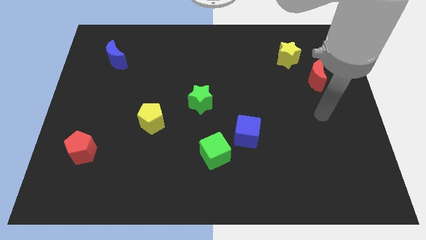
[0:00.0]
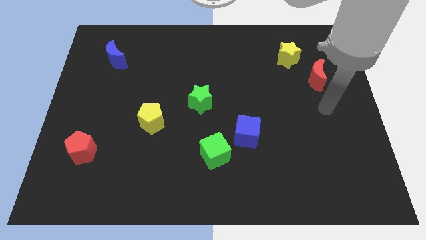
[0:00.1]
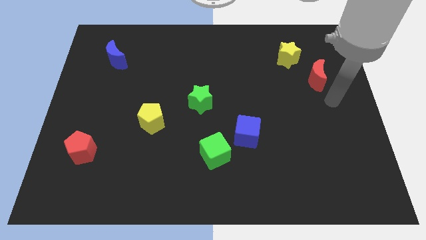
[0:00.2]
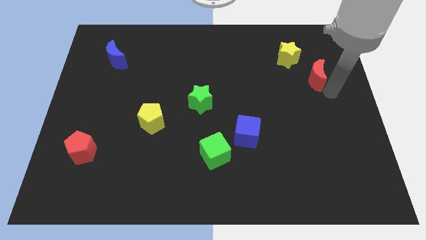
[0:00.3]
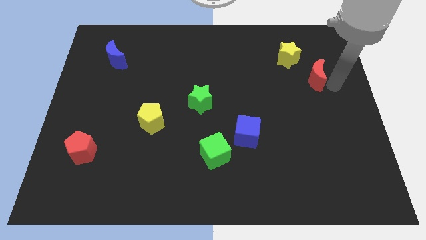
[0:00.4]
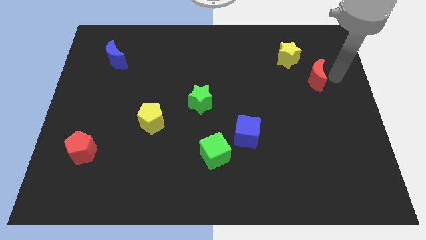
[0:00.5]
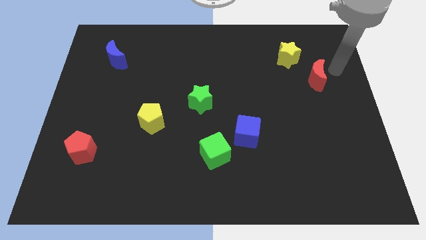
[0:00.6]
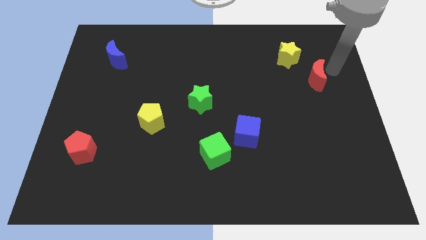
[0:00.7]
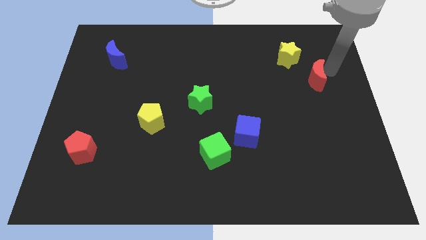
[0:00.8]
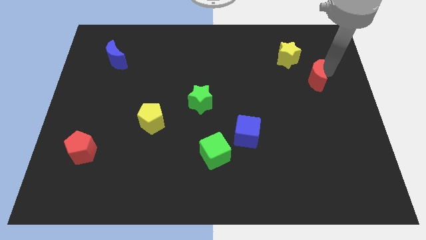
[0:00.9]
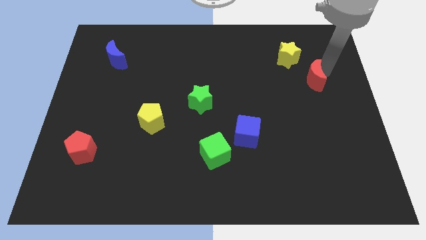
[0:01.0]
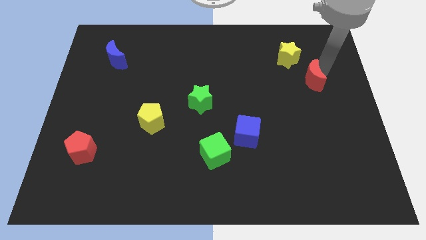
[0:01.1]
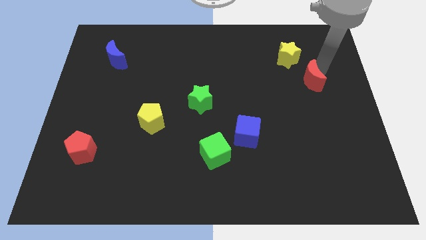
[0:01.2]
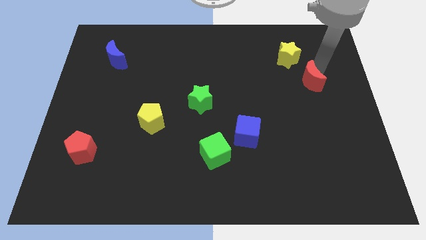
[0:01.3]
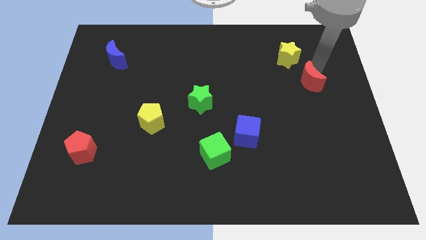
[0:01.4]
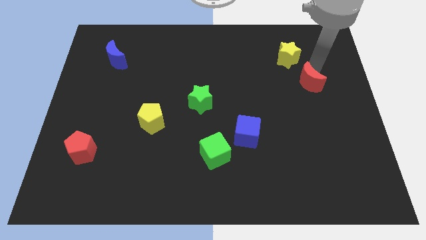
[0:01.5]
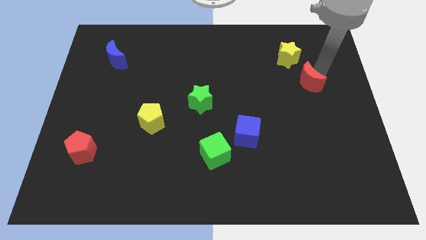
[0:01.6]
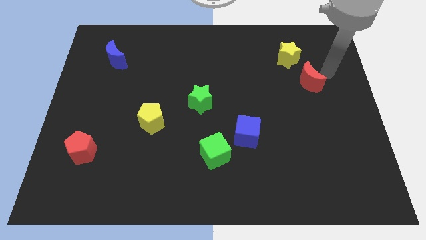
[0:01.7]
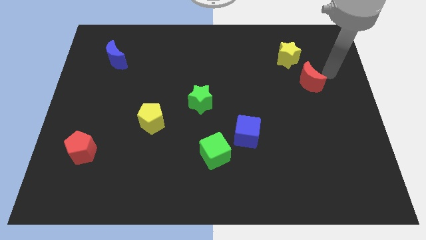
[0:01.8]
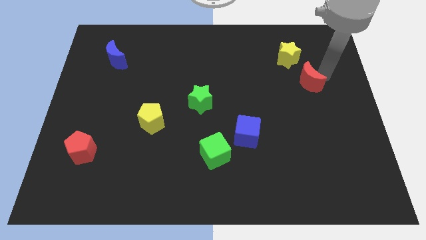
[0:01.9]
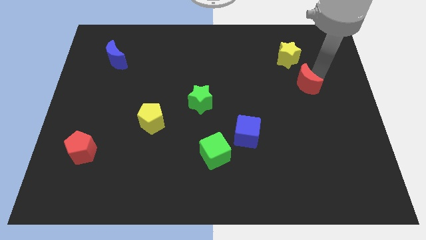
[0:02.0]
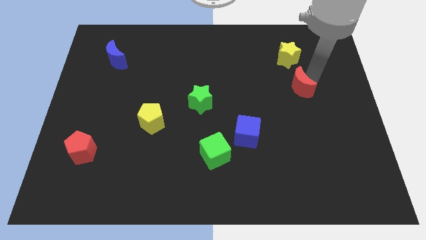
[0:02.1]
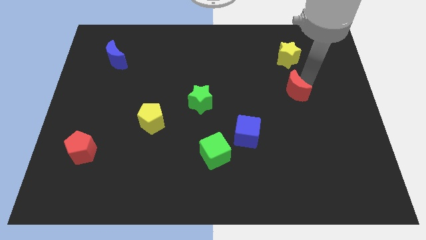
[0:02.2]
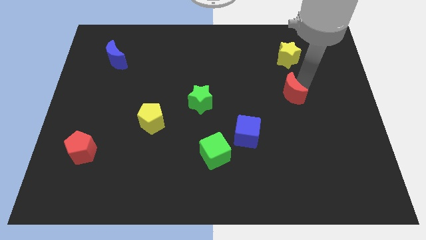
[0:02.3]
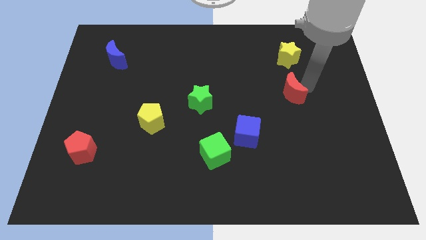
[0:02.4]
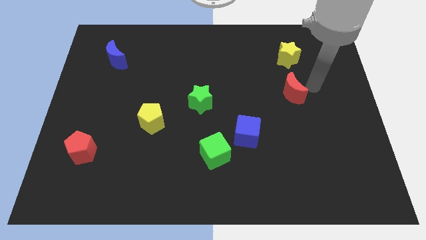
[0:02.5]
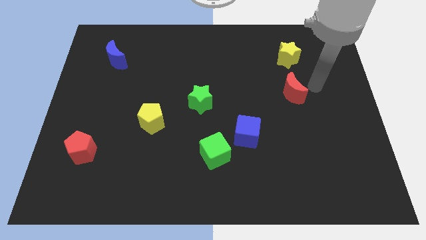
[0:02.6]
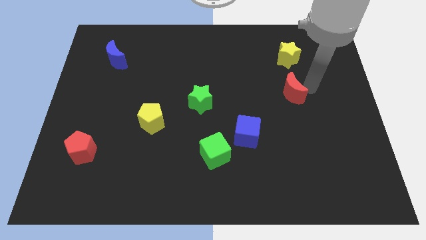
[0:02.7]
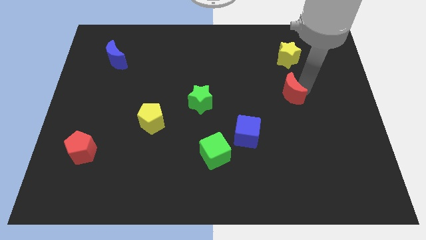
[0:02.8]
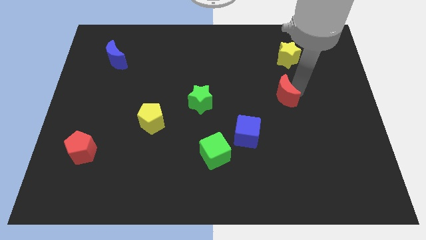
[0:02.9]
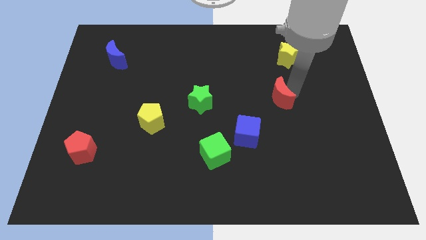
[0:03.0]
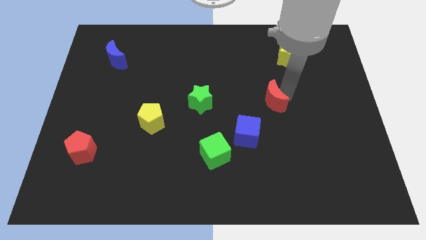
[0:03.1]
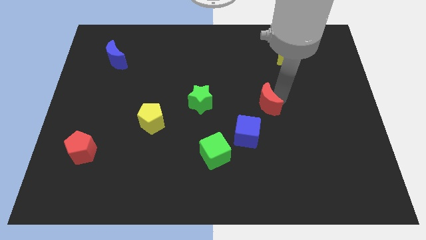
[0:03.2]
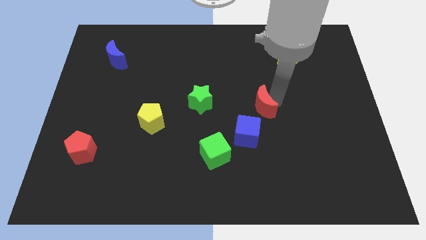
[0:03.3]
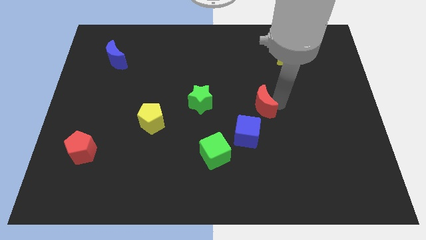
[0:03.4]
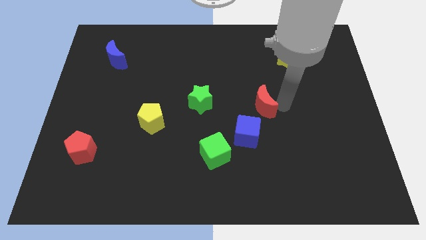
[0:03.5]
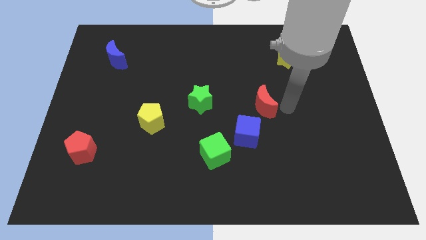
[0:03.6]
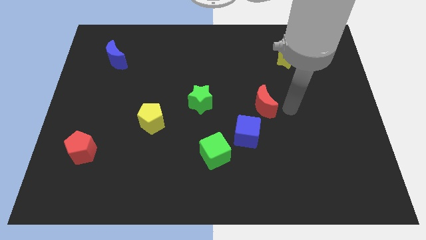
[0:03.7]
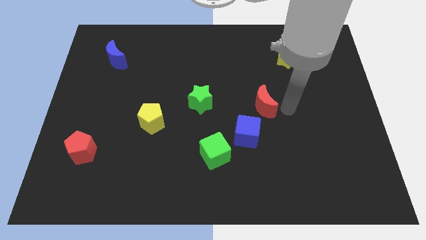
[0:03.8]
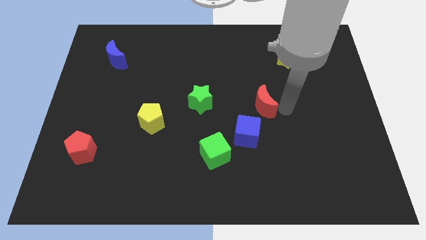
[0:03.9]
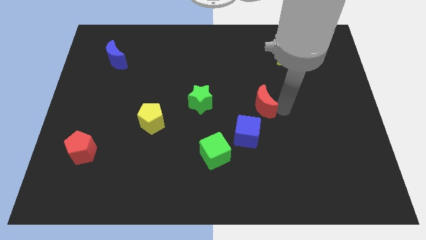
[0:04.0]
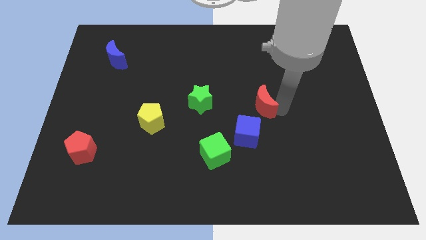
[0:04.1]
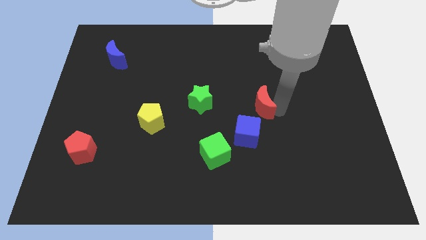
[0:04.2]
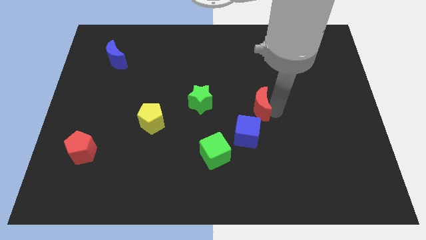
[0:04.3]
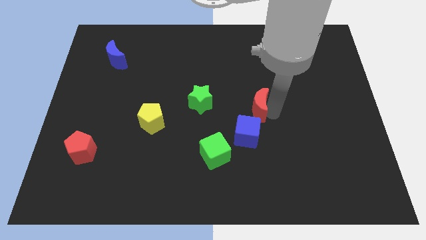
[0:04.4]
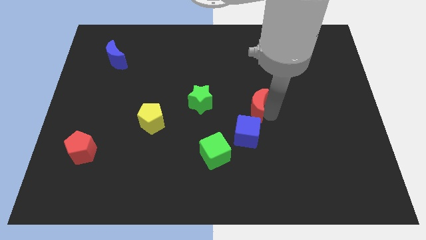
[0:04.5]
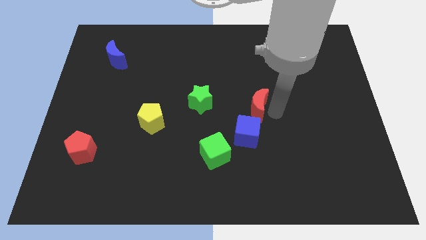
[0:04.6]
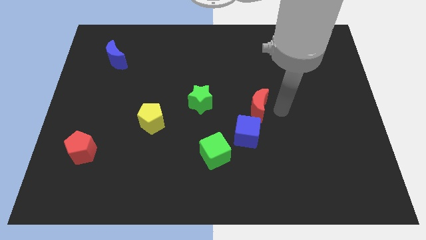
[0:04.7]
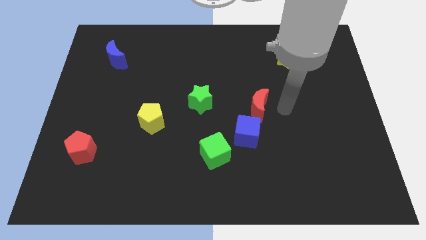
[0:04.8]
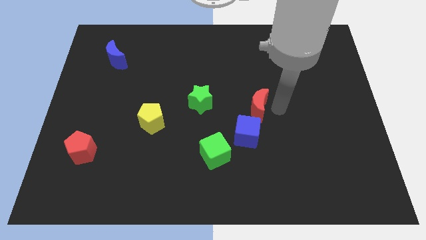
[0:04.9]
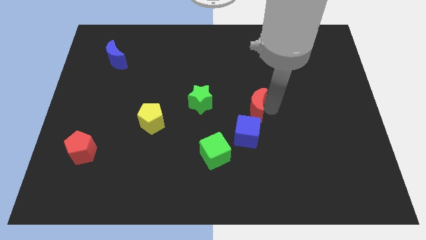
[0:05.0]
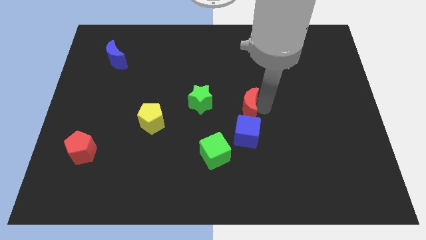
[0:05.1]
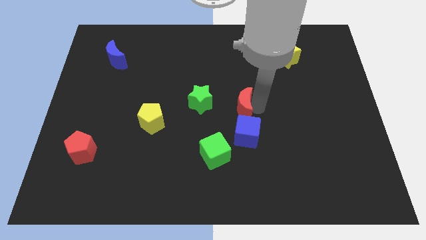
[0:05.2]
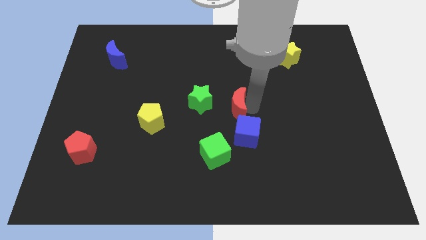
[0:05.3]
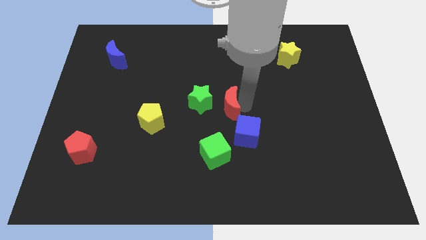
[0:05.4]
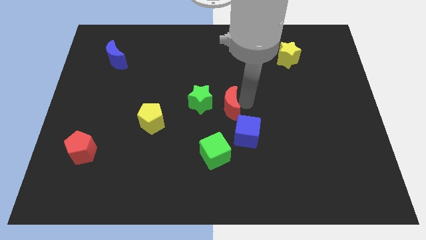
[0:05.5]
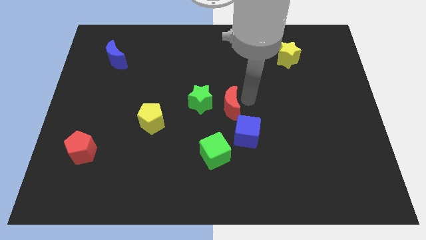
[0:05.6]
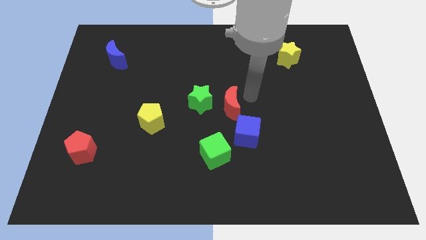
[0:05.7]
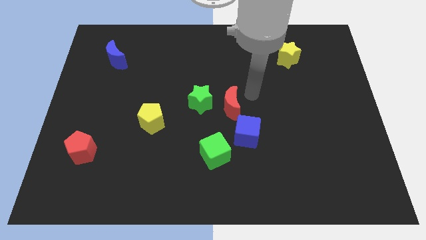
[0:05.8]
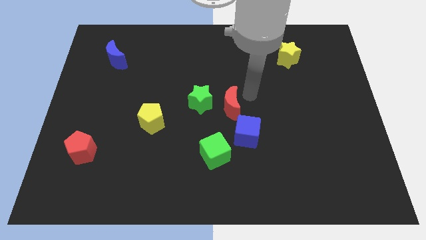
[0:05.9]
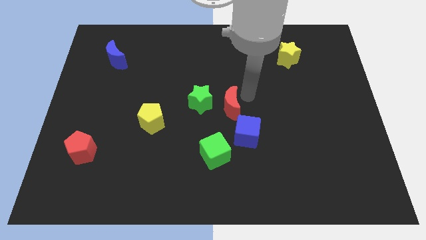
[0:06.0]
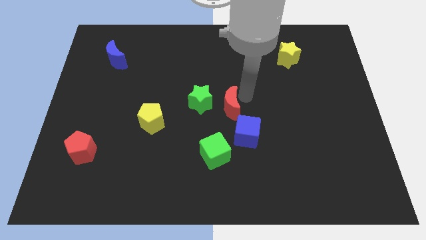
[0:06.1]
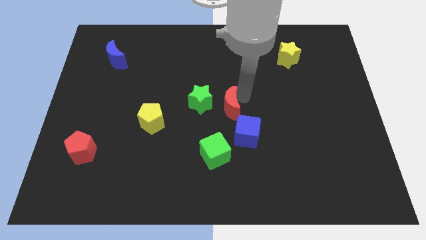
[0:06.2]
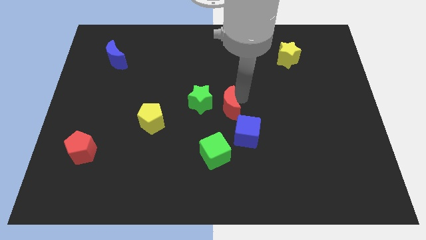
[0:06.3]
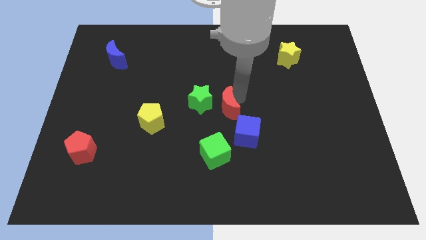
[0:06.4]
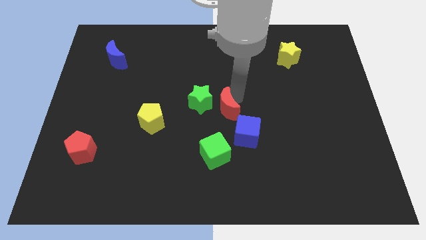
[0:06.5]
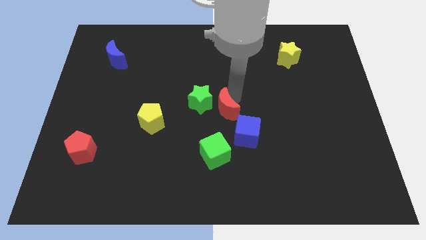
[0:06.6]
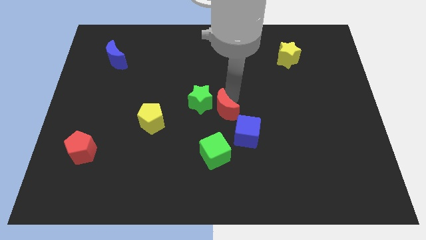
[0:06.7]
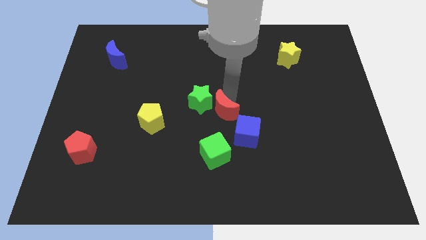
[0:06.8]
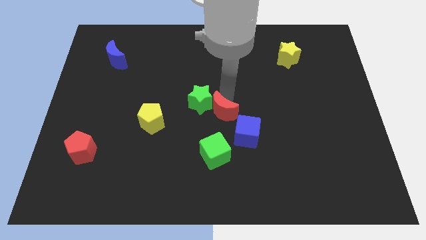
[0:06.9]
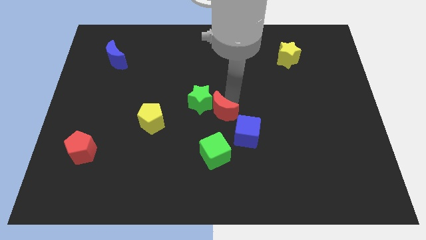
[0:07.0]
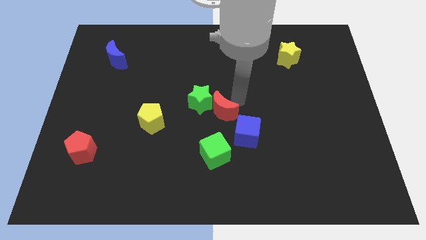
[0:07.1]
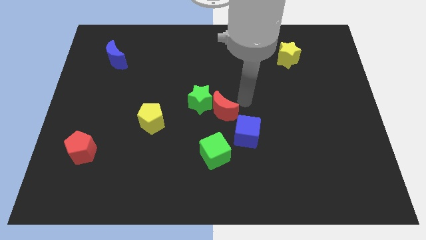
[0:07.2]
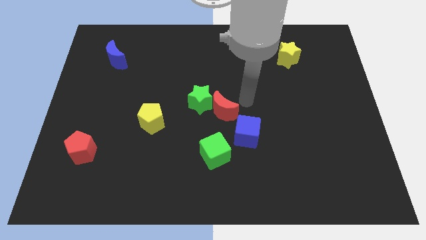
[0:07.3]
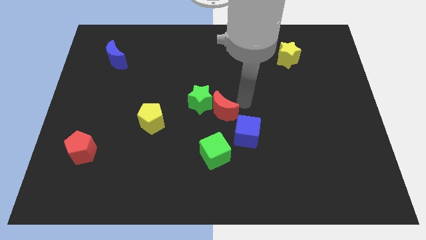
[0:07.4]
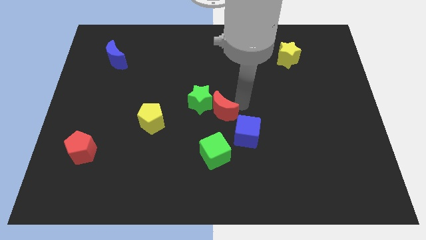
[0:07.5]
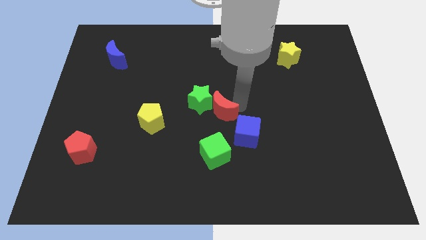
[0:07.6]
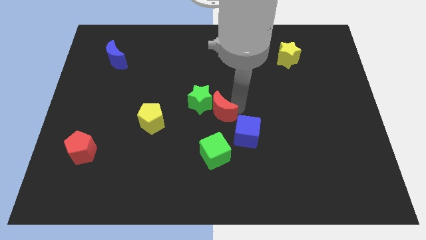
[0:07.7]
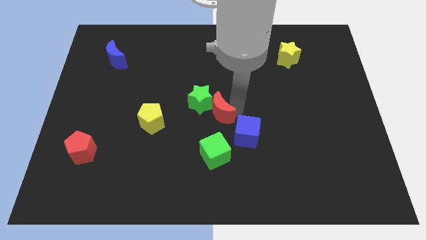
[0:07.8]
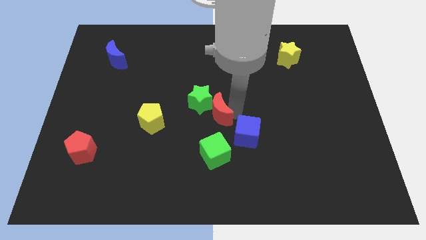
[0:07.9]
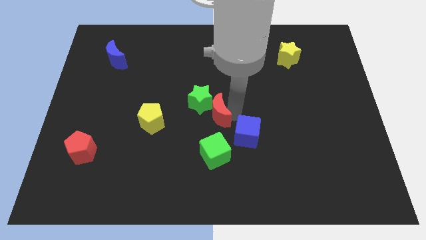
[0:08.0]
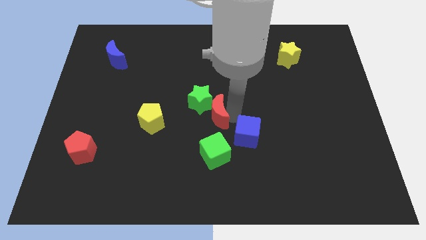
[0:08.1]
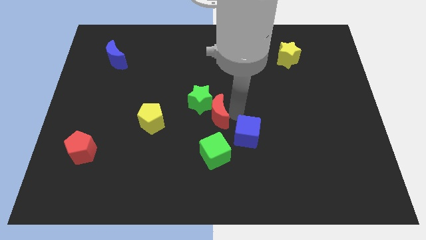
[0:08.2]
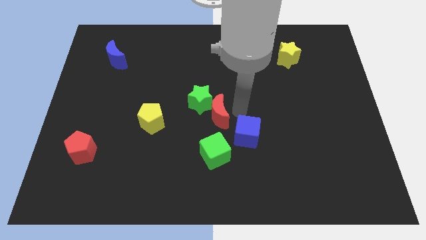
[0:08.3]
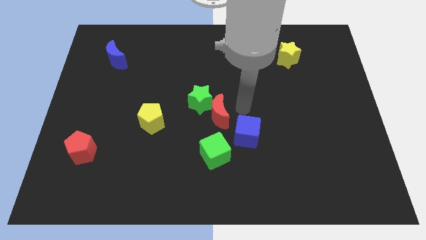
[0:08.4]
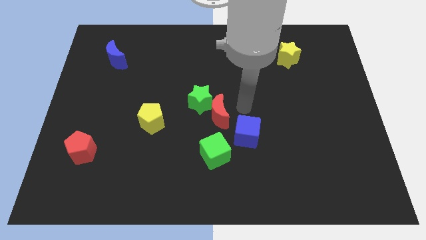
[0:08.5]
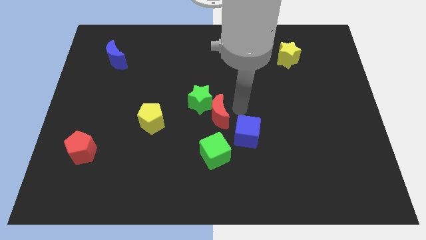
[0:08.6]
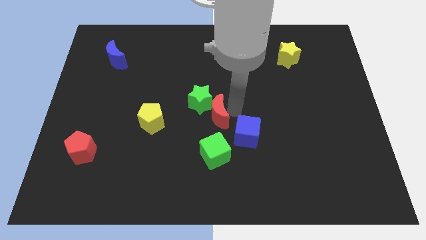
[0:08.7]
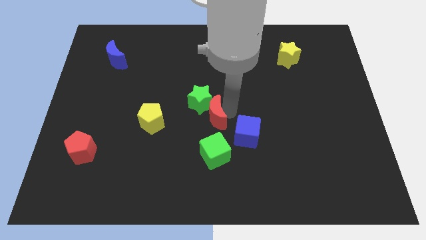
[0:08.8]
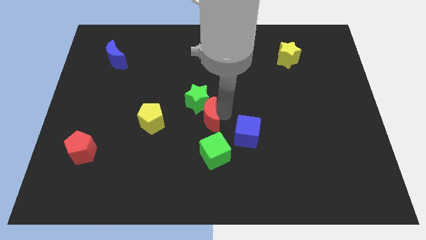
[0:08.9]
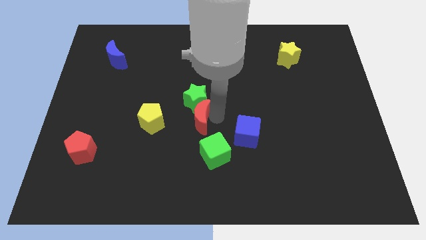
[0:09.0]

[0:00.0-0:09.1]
put the red moon diagonally down and to the left of the green star
